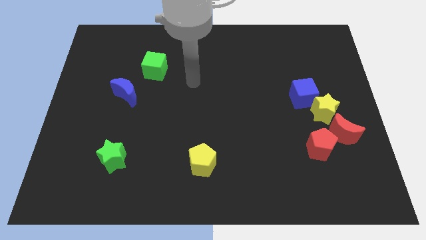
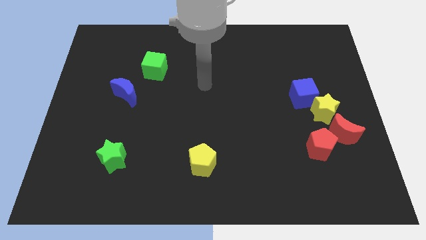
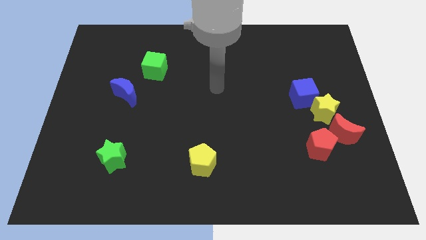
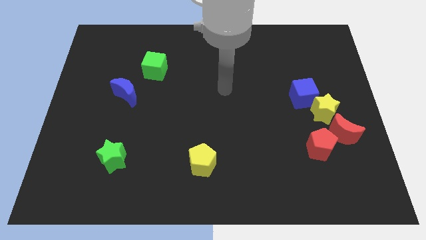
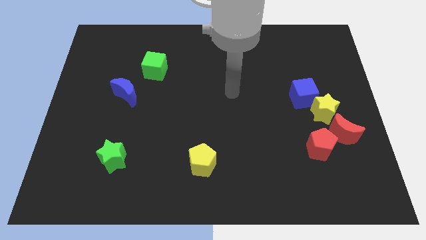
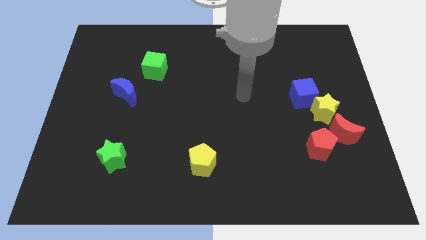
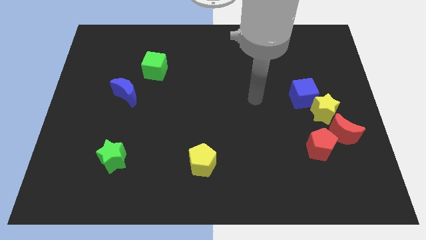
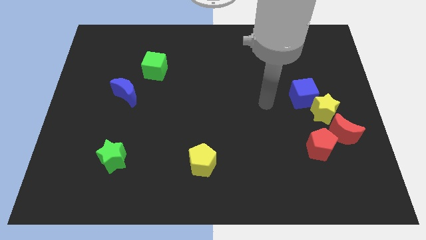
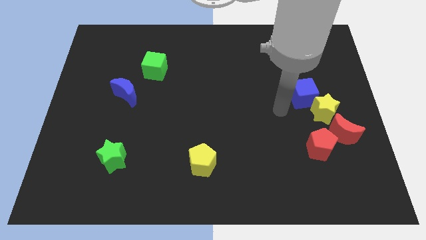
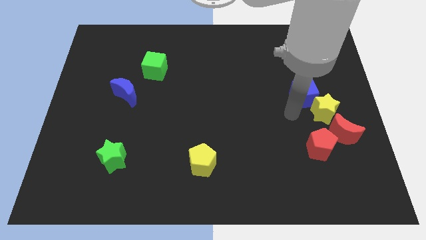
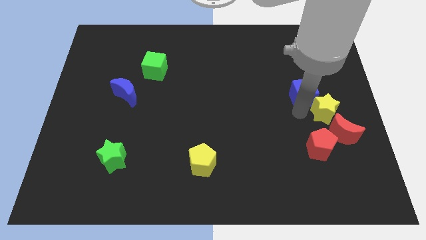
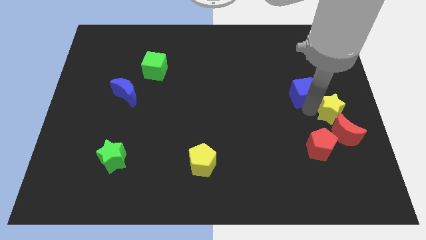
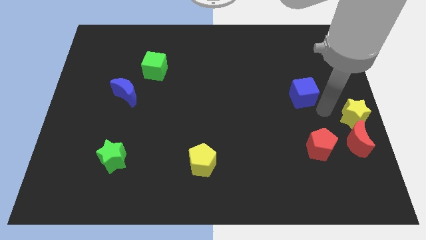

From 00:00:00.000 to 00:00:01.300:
move the blue cube away from the yellow star

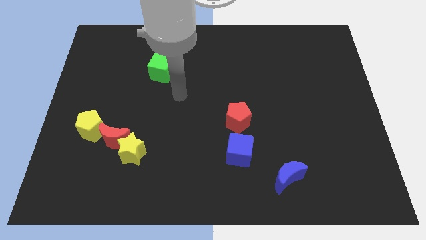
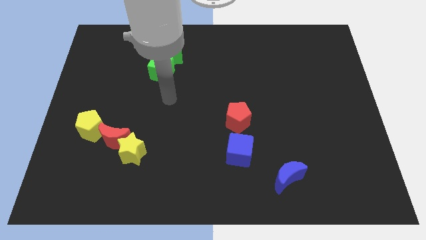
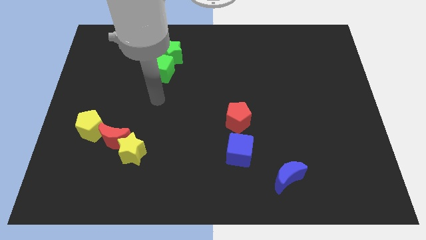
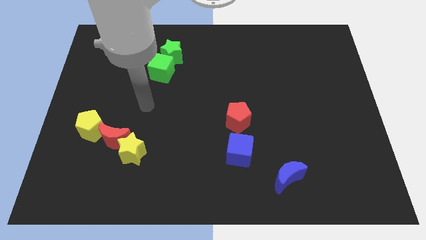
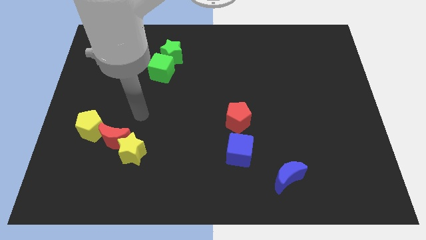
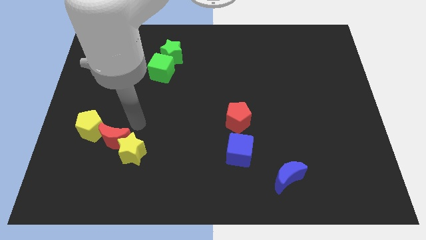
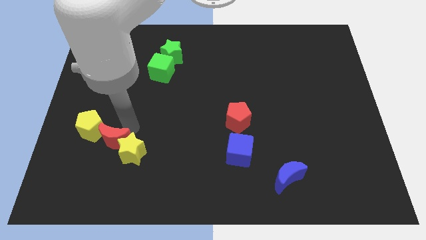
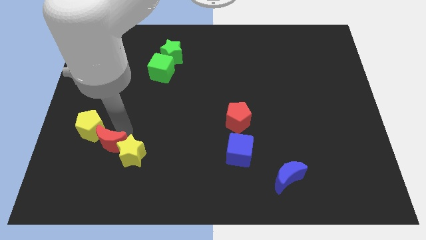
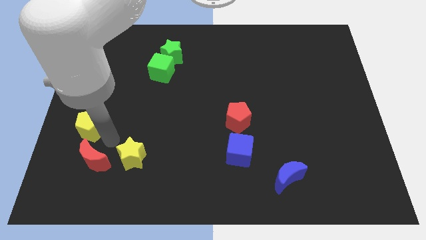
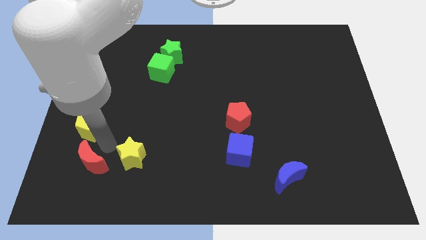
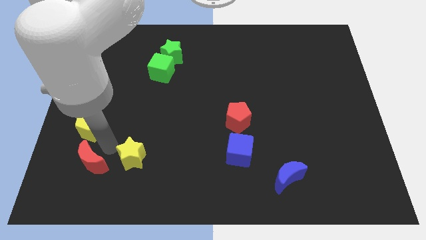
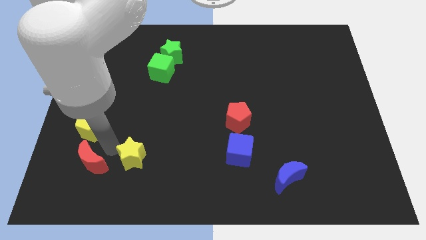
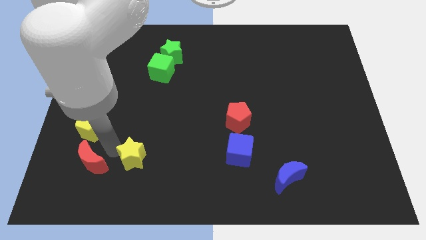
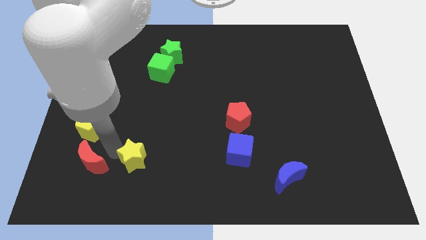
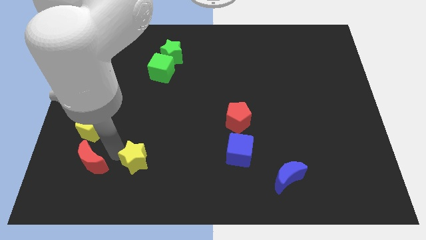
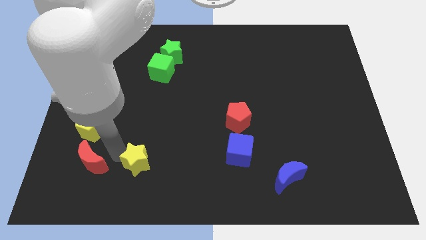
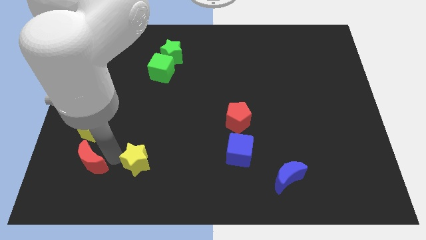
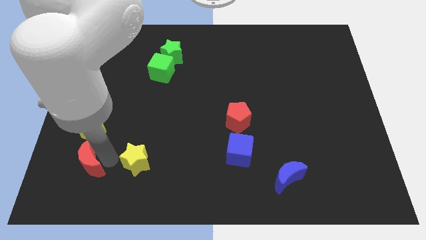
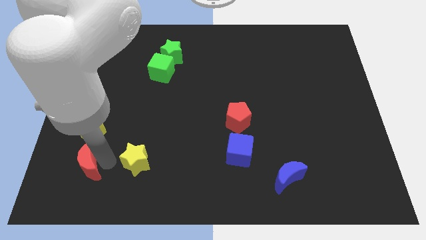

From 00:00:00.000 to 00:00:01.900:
pull the yellow star apart from the red moon

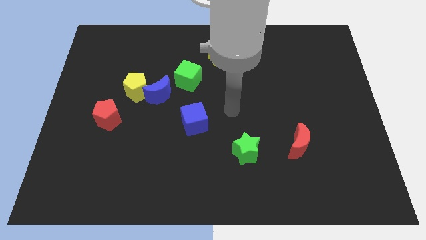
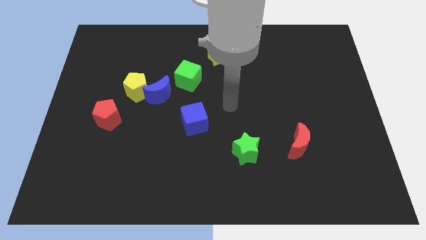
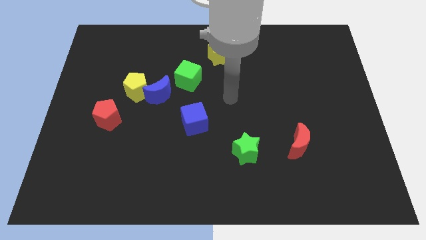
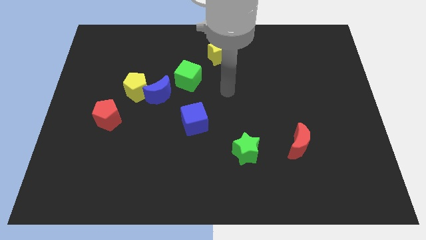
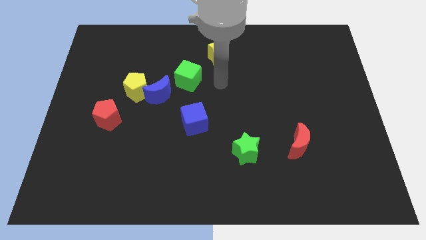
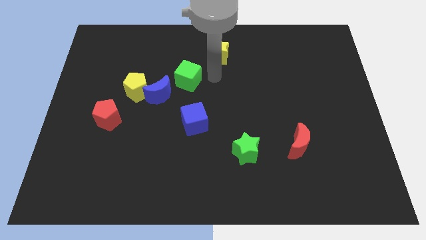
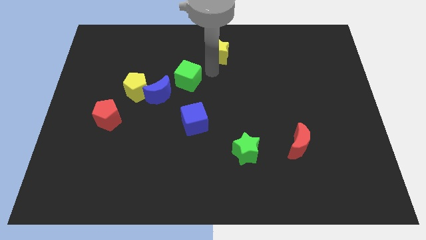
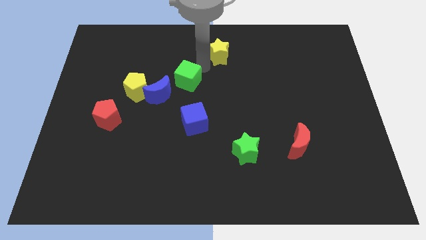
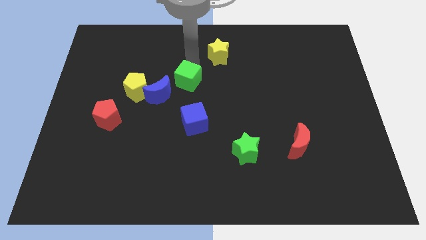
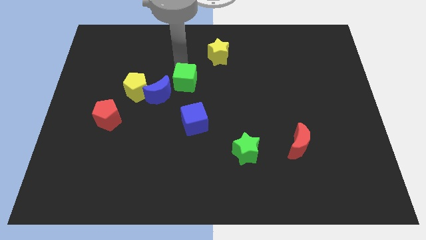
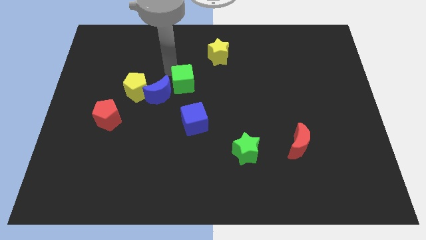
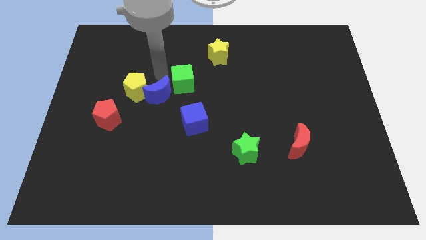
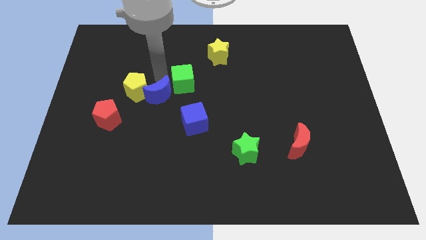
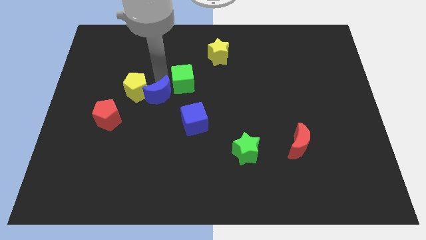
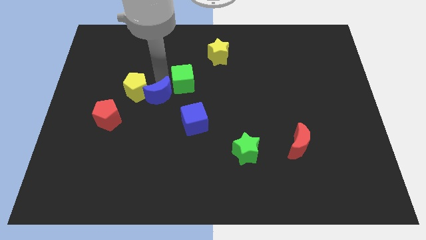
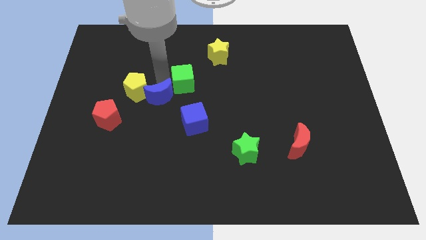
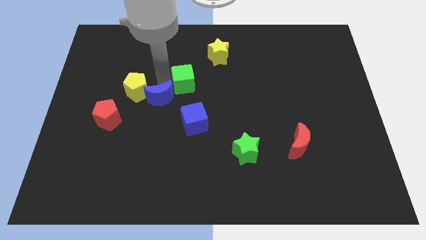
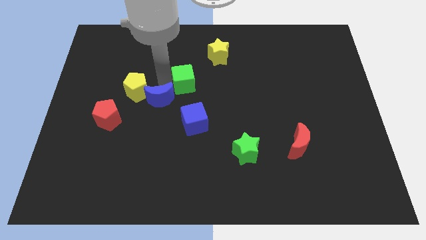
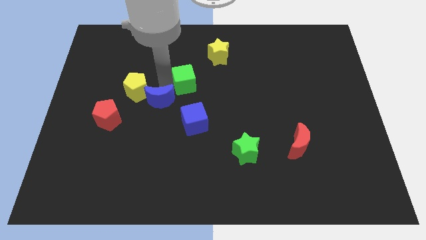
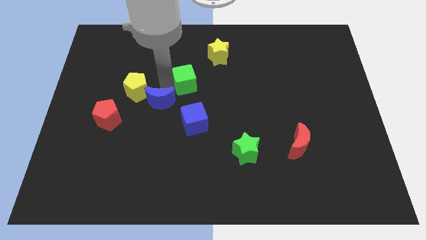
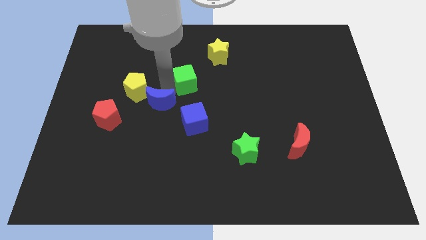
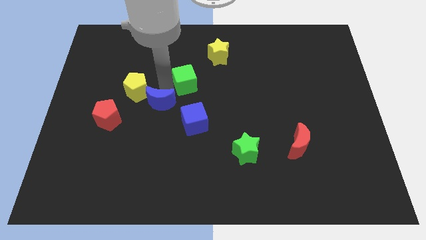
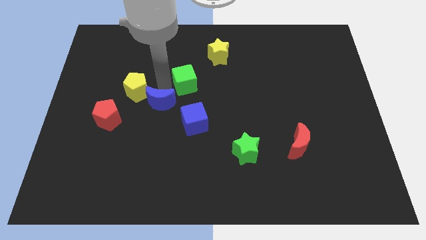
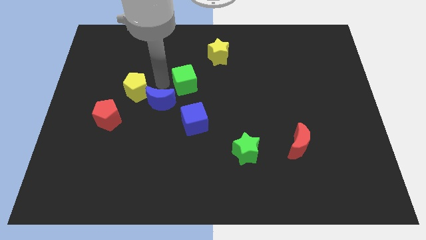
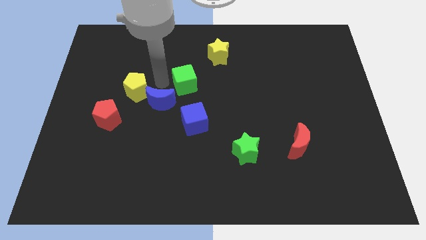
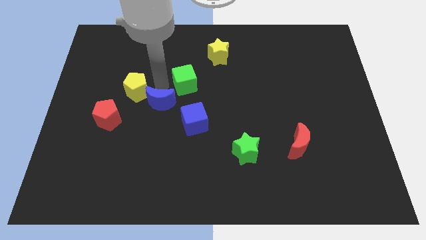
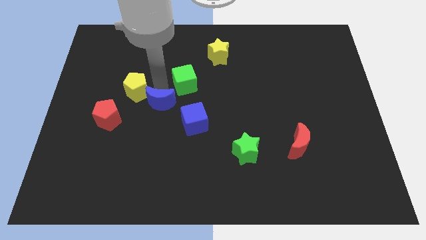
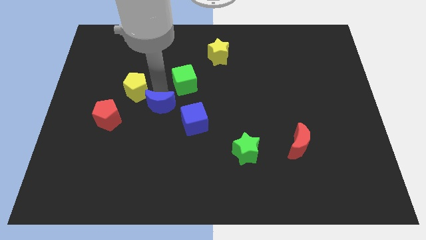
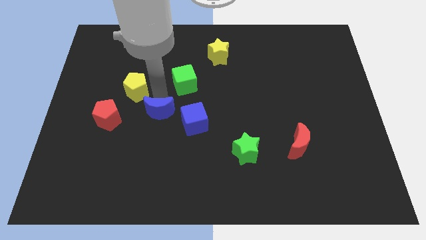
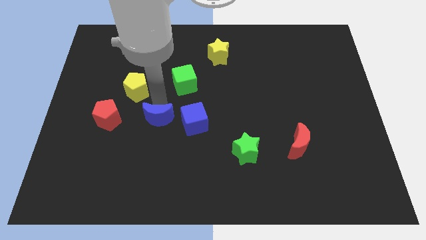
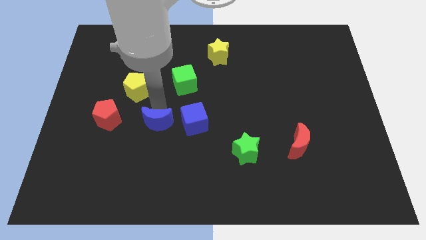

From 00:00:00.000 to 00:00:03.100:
pull the blue moon apart from the yellow pentagon and green cube

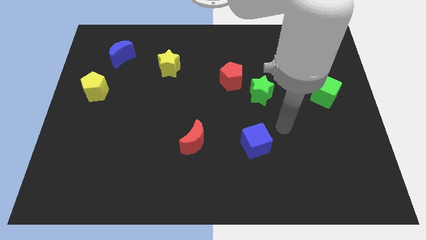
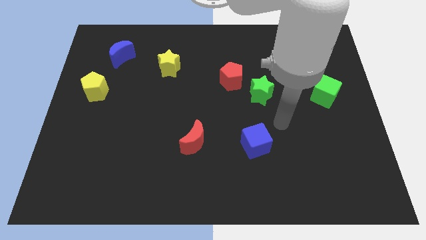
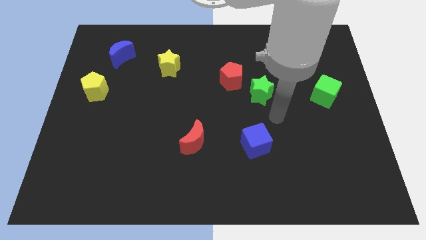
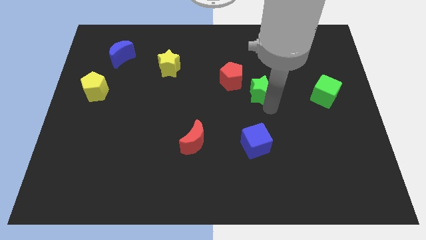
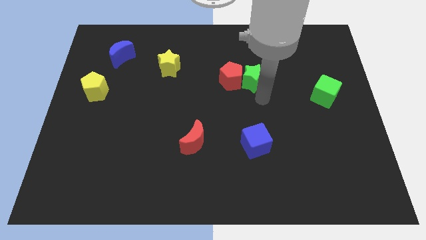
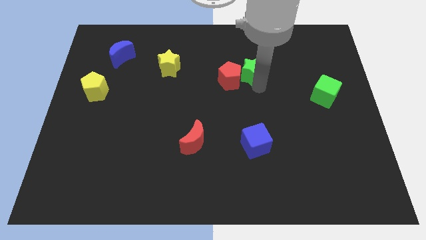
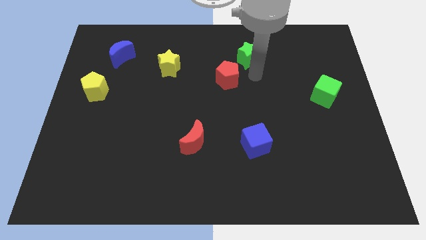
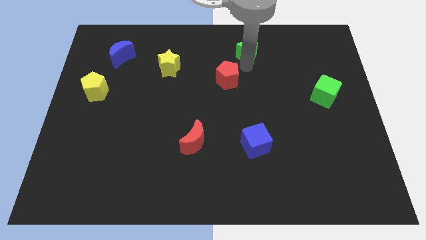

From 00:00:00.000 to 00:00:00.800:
move the red pentagon away from the green star

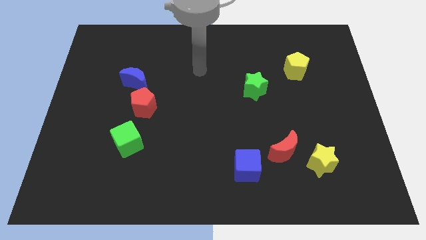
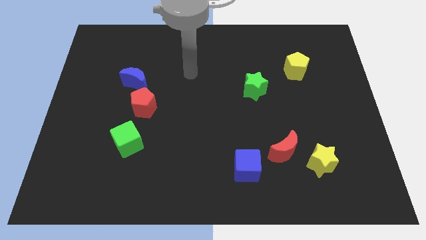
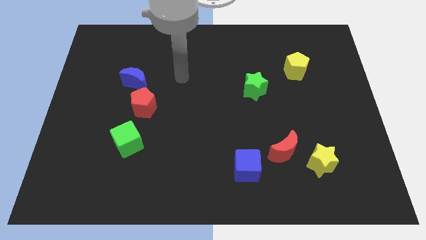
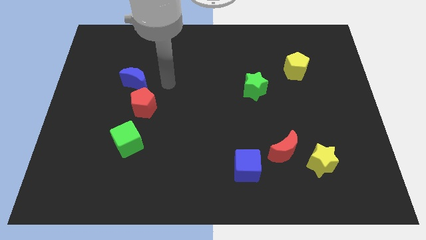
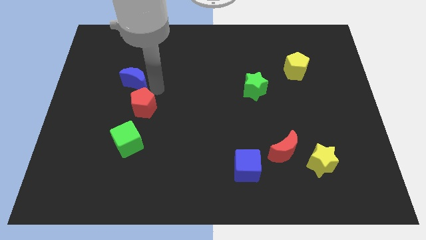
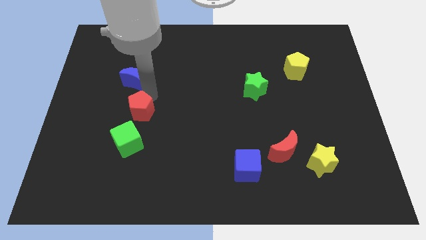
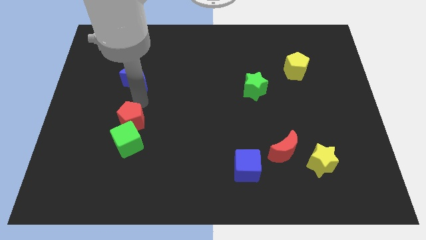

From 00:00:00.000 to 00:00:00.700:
separate the blue moon from the red pentagon

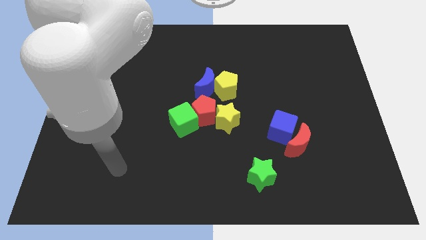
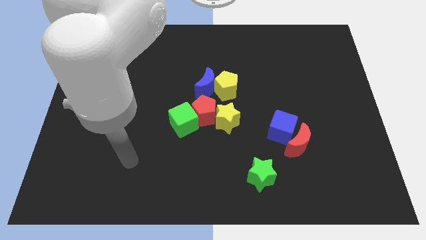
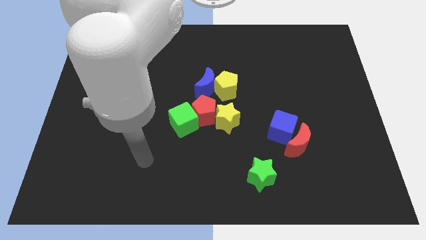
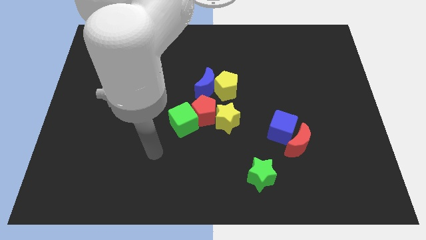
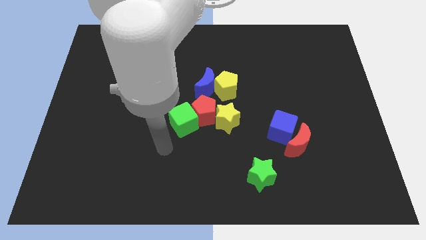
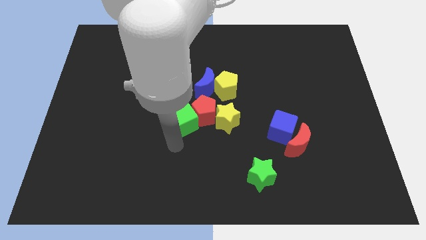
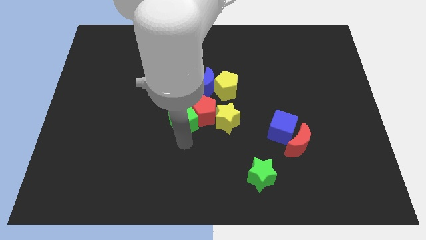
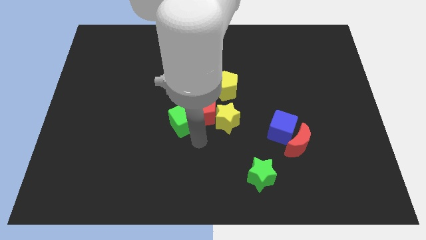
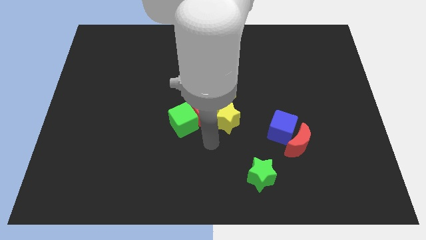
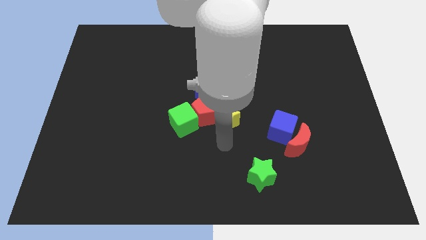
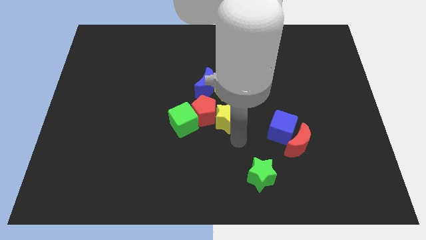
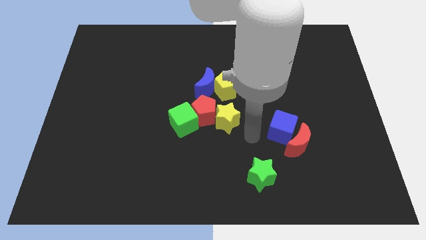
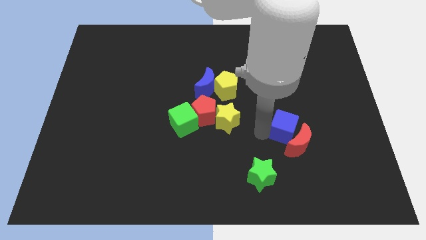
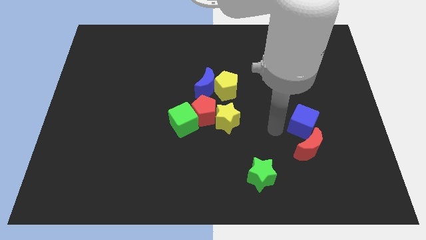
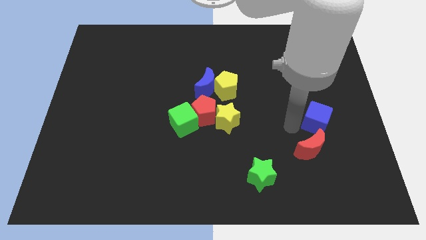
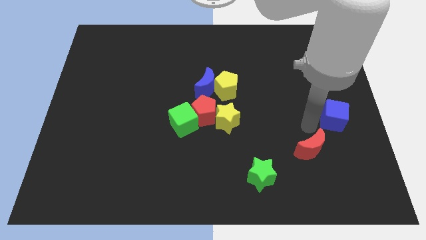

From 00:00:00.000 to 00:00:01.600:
separate the red moon from the blue cube
